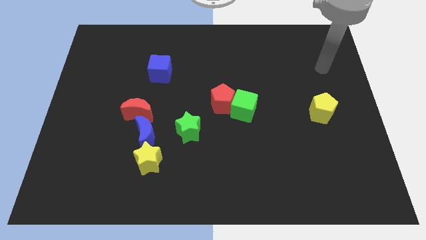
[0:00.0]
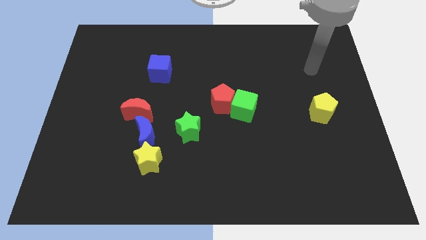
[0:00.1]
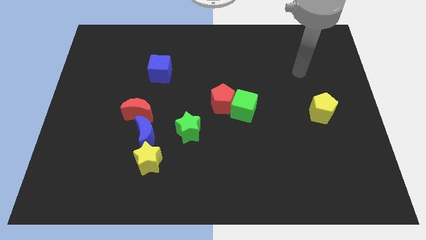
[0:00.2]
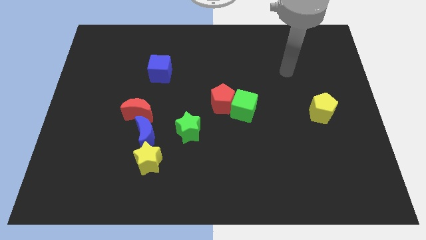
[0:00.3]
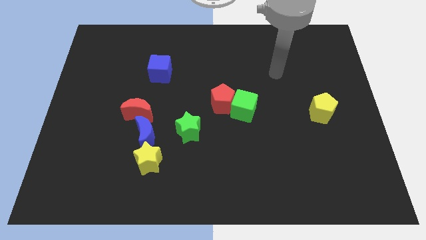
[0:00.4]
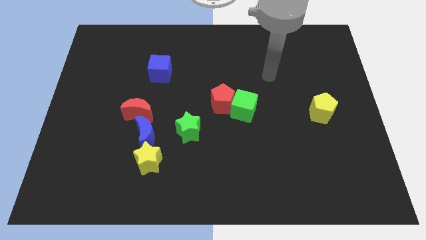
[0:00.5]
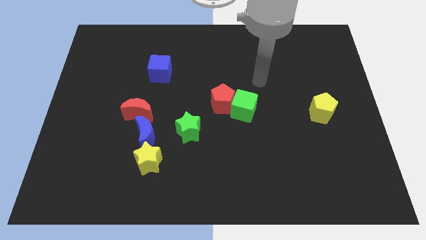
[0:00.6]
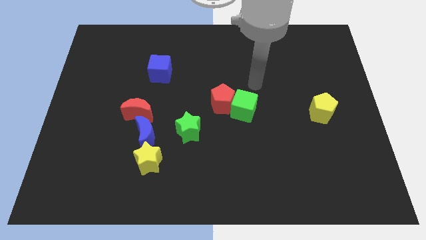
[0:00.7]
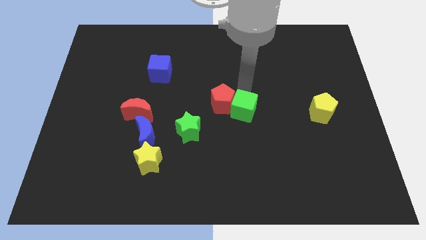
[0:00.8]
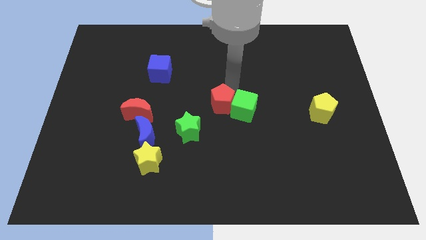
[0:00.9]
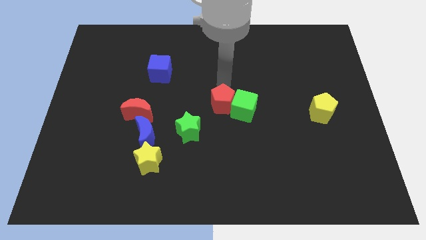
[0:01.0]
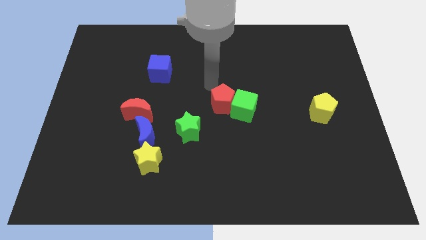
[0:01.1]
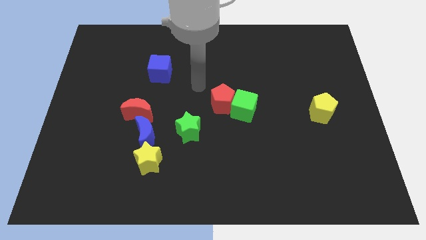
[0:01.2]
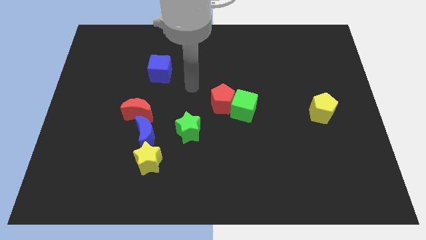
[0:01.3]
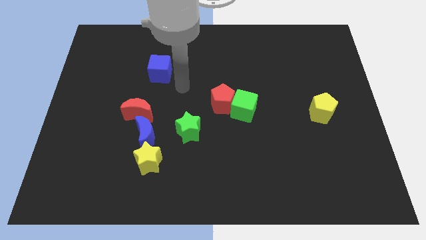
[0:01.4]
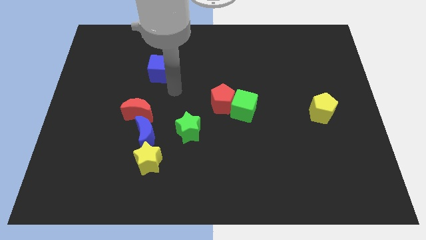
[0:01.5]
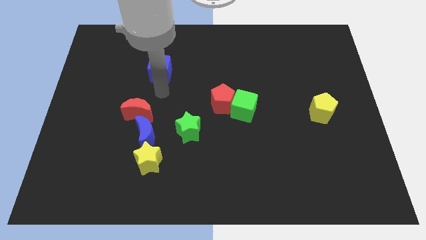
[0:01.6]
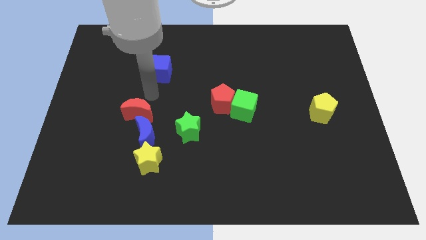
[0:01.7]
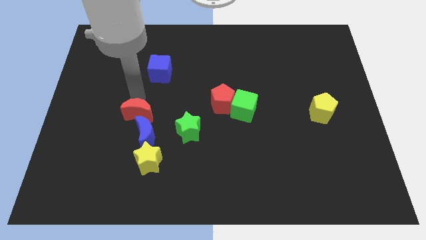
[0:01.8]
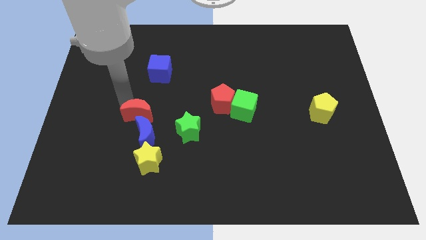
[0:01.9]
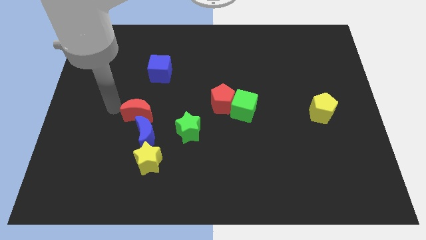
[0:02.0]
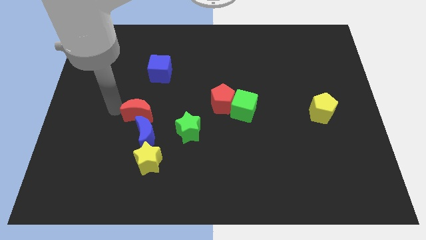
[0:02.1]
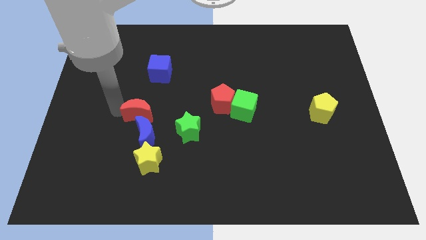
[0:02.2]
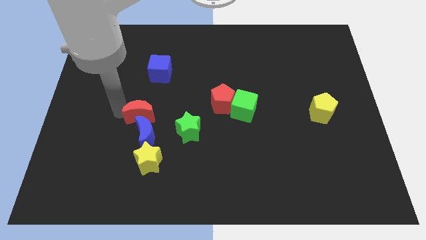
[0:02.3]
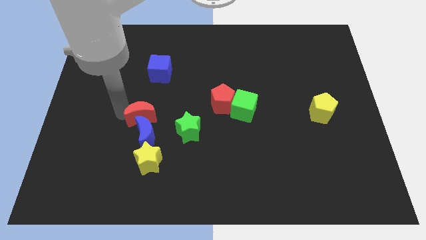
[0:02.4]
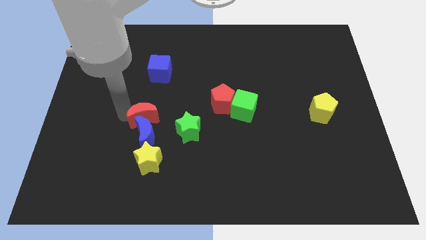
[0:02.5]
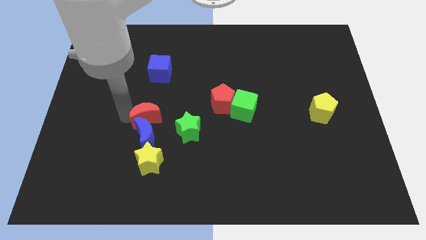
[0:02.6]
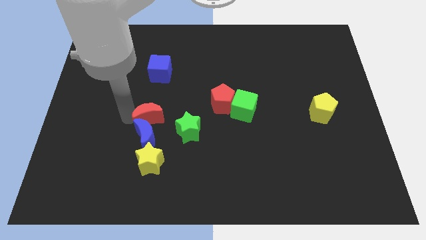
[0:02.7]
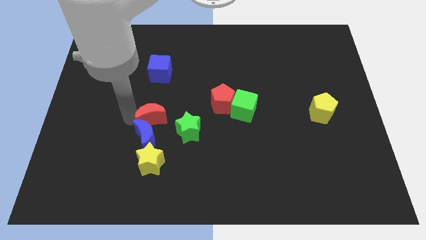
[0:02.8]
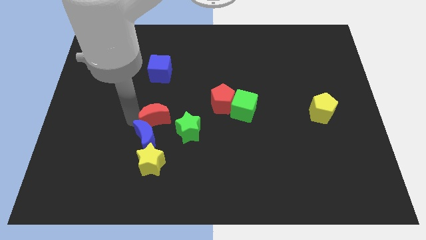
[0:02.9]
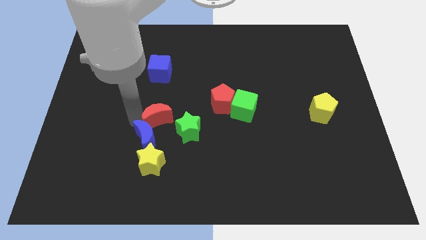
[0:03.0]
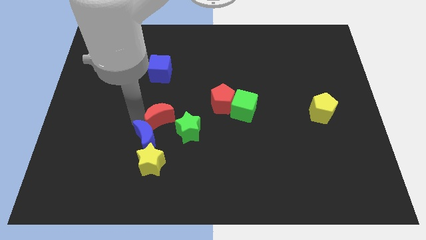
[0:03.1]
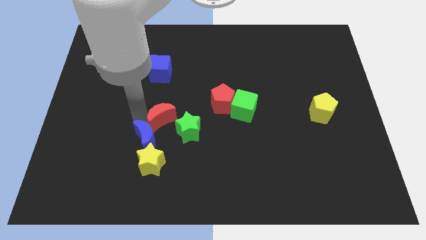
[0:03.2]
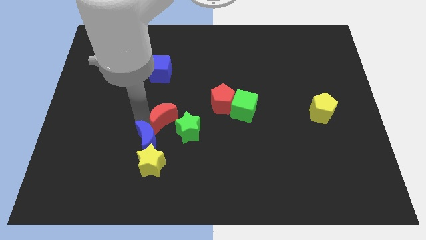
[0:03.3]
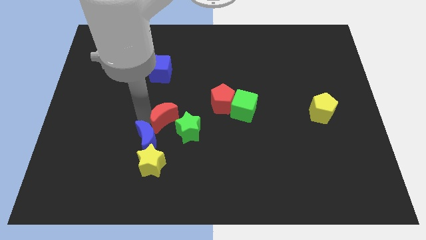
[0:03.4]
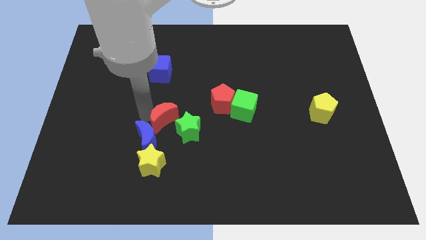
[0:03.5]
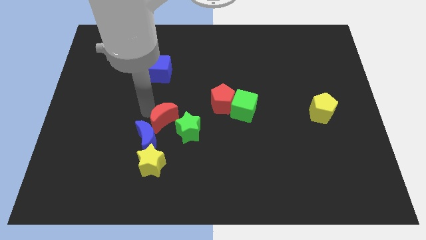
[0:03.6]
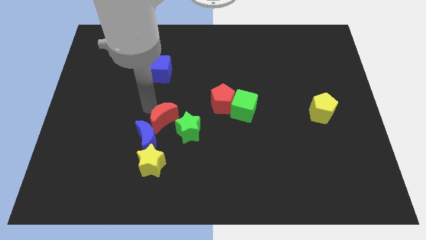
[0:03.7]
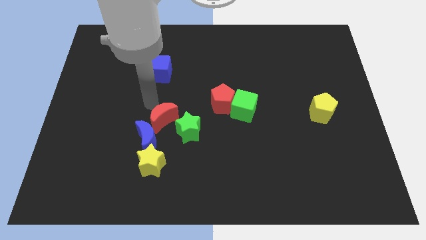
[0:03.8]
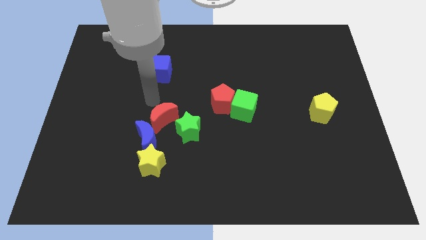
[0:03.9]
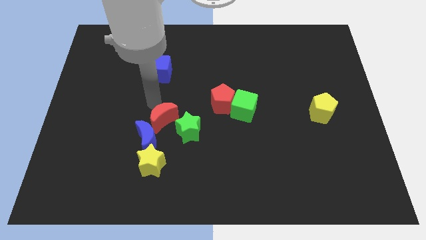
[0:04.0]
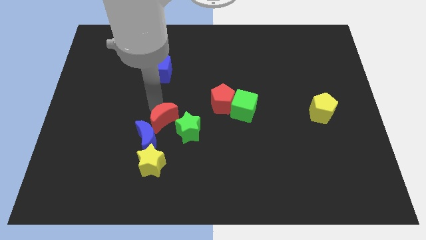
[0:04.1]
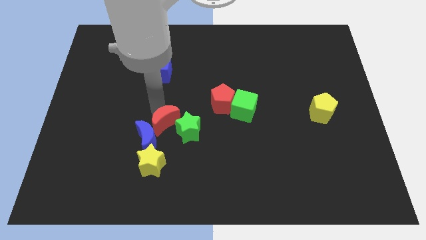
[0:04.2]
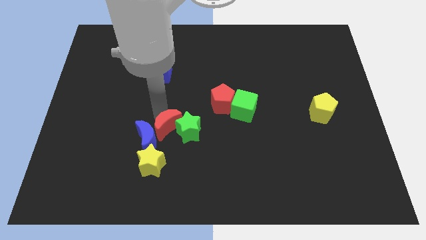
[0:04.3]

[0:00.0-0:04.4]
slightly move the red moon downwards and right

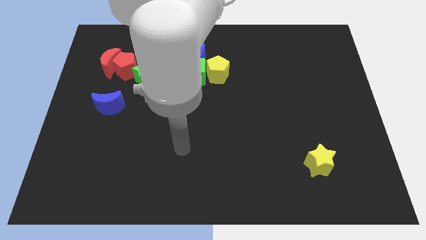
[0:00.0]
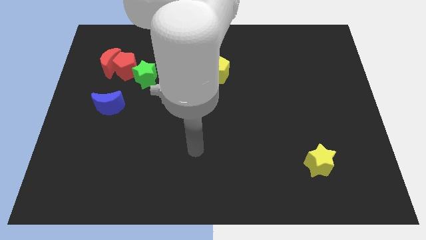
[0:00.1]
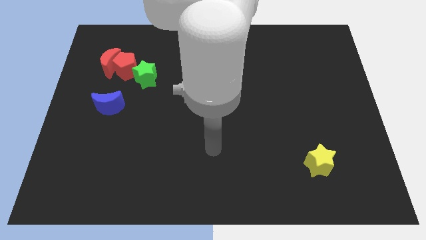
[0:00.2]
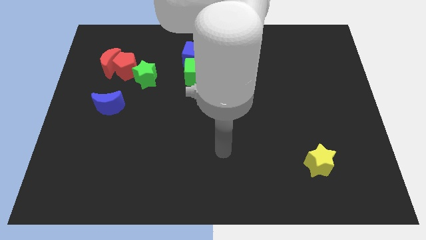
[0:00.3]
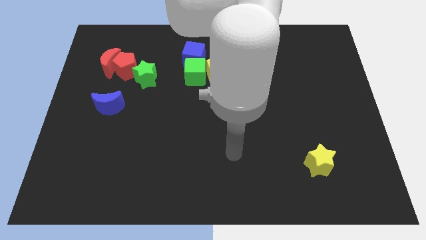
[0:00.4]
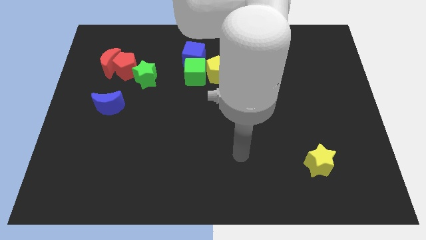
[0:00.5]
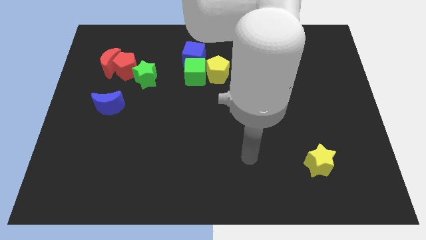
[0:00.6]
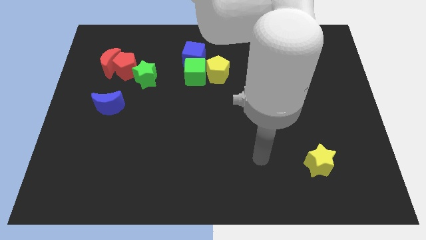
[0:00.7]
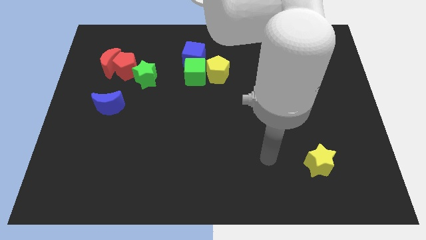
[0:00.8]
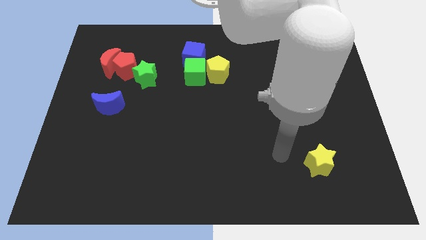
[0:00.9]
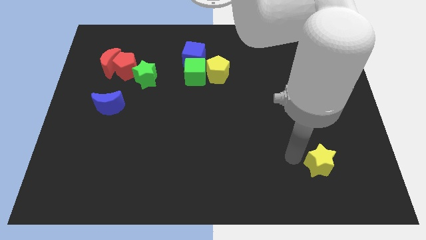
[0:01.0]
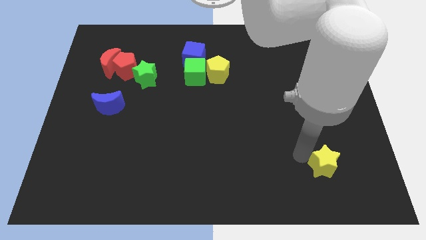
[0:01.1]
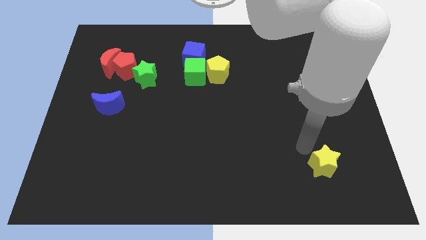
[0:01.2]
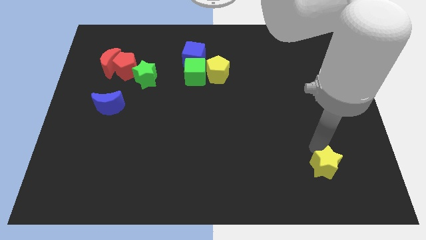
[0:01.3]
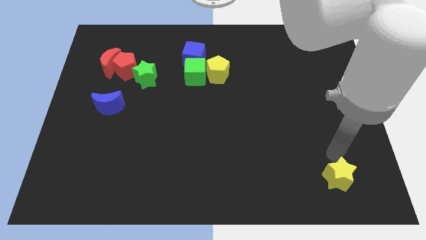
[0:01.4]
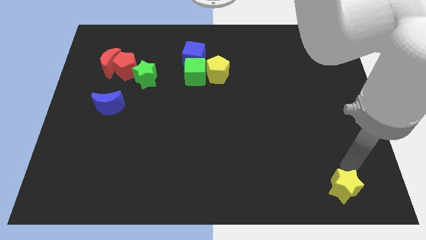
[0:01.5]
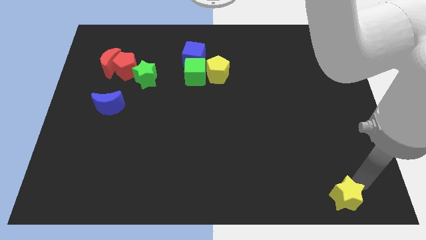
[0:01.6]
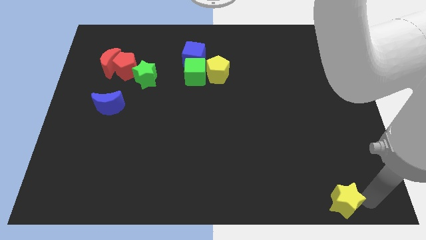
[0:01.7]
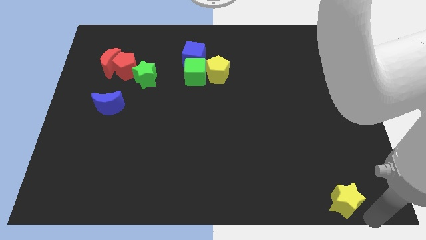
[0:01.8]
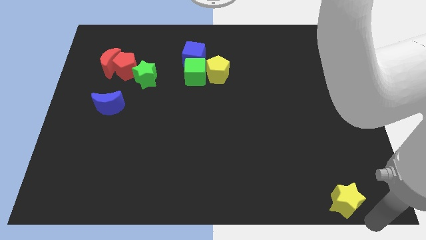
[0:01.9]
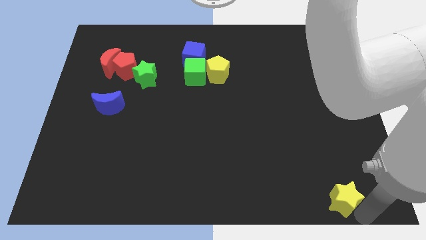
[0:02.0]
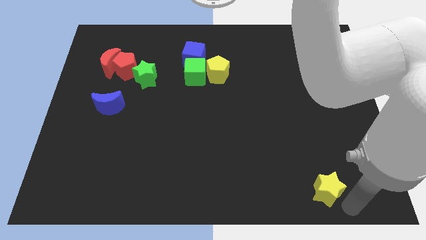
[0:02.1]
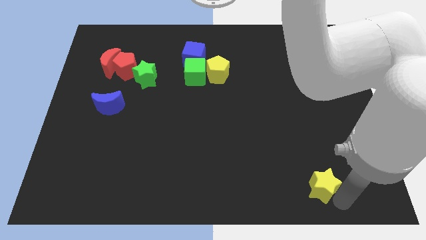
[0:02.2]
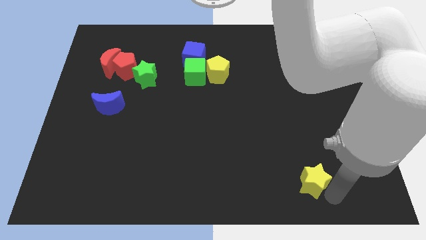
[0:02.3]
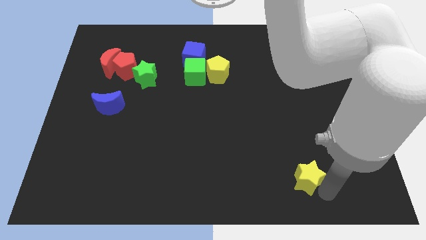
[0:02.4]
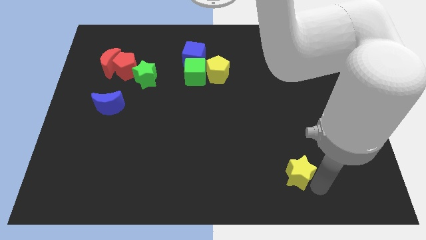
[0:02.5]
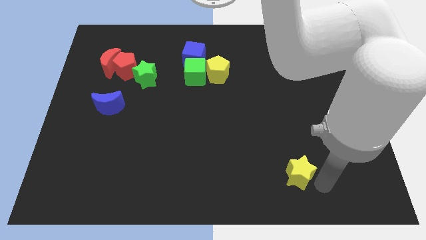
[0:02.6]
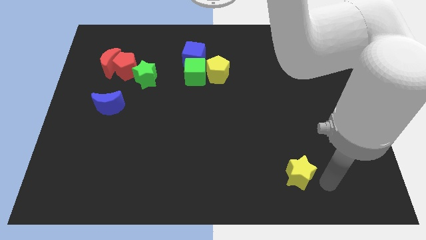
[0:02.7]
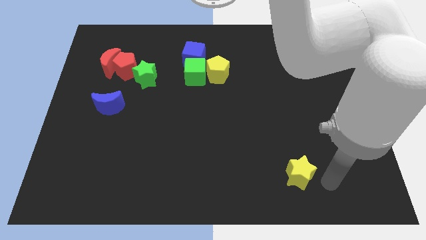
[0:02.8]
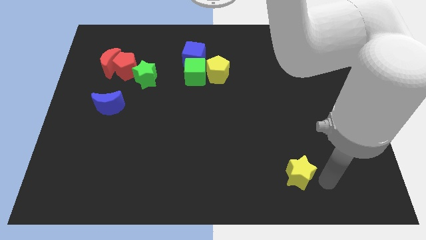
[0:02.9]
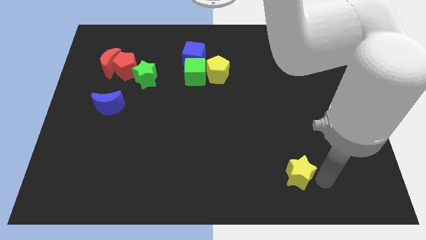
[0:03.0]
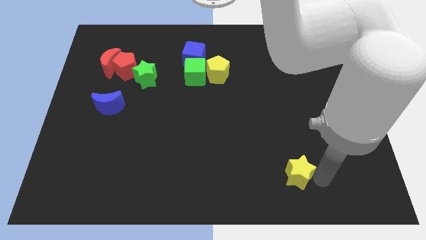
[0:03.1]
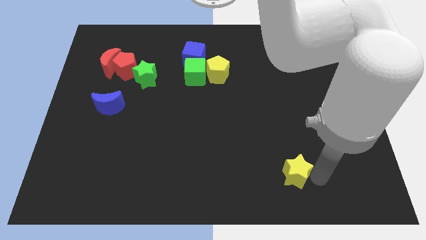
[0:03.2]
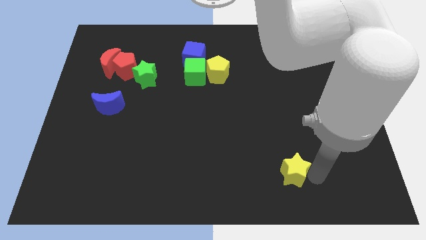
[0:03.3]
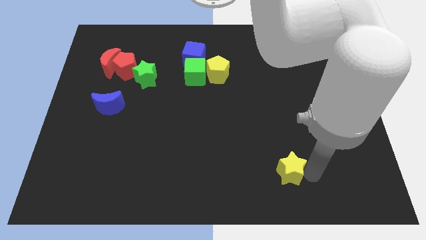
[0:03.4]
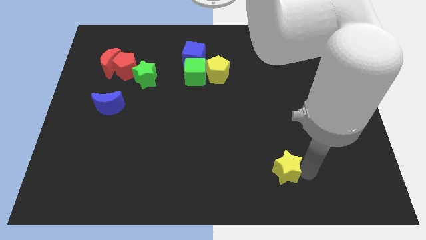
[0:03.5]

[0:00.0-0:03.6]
slightly move the yellow star left
